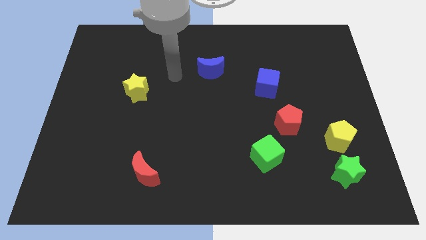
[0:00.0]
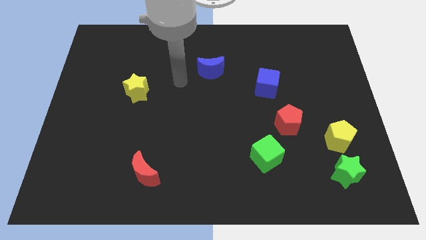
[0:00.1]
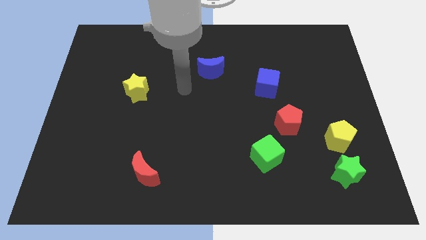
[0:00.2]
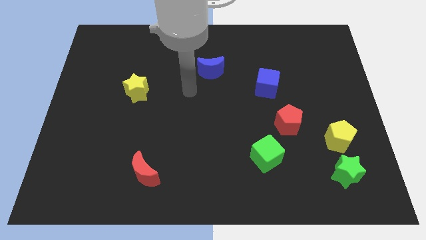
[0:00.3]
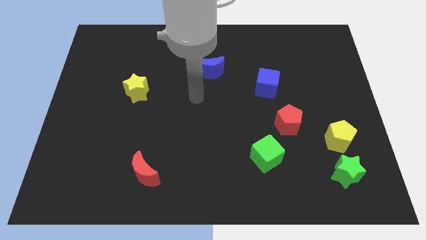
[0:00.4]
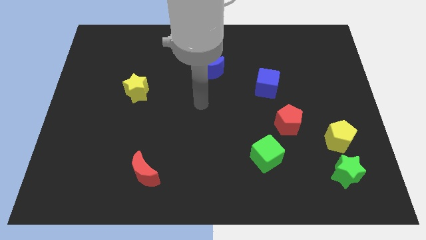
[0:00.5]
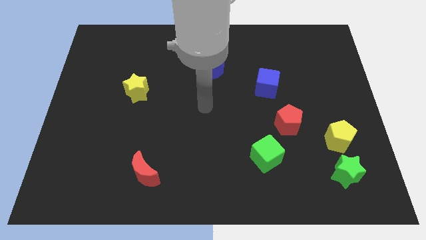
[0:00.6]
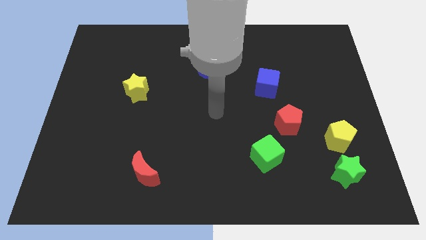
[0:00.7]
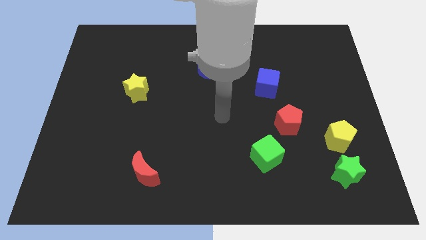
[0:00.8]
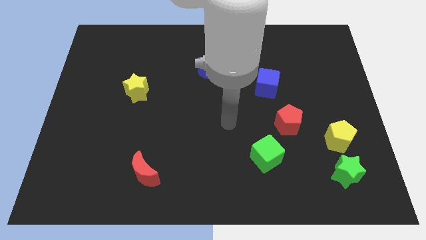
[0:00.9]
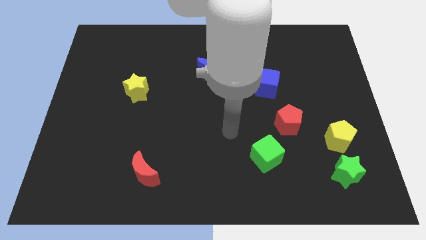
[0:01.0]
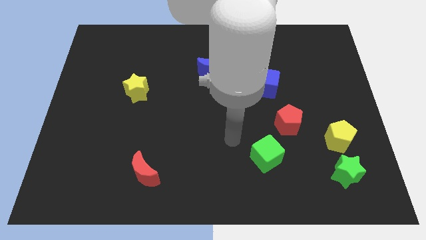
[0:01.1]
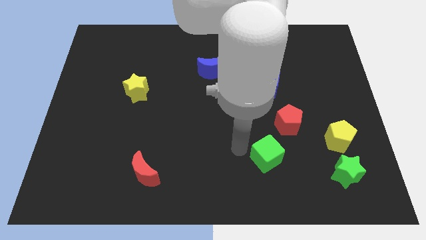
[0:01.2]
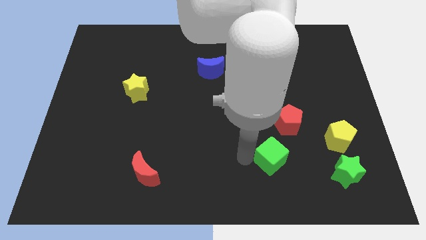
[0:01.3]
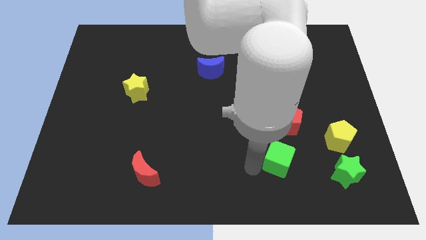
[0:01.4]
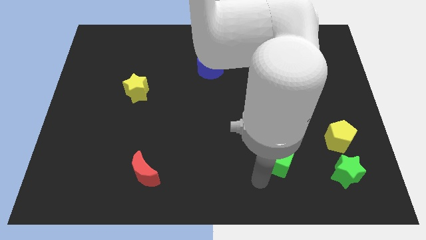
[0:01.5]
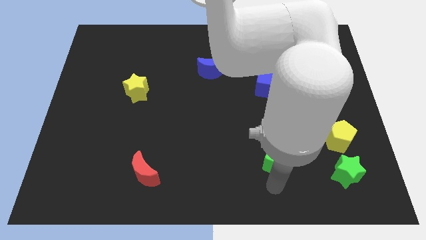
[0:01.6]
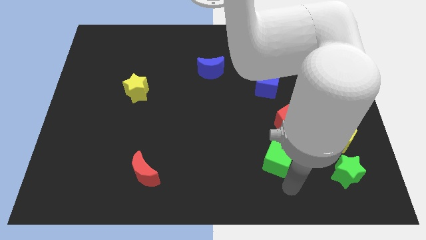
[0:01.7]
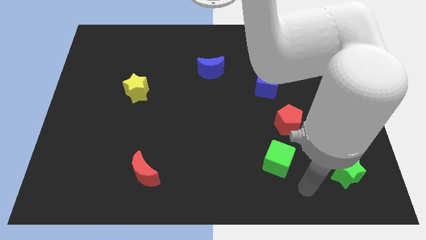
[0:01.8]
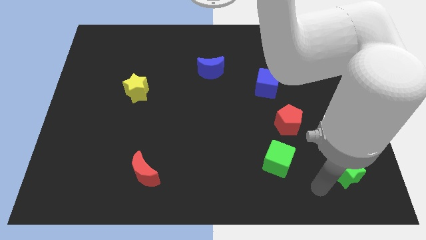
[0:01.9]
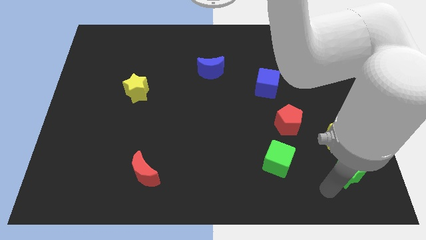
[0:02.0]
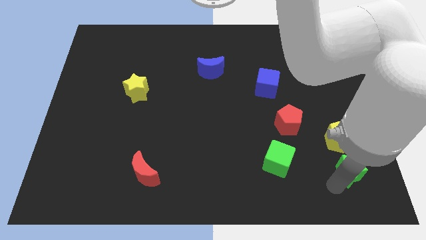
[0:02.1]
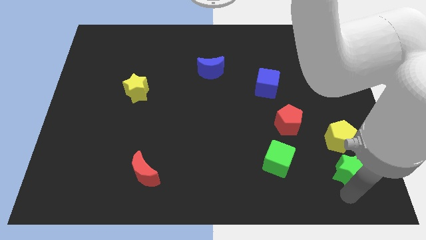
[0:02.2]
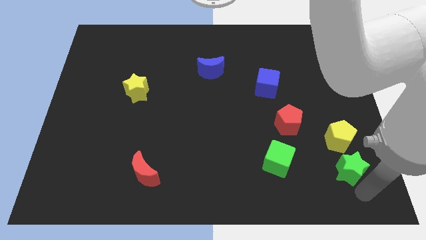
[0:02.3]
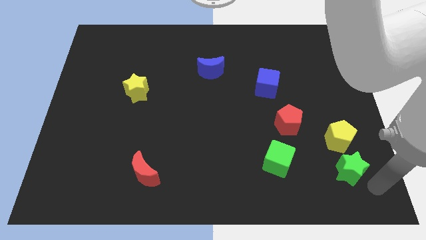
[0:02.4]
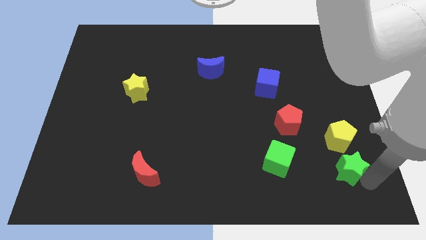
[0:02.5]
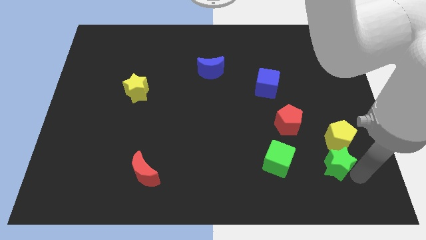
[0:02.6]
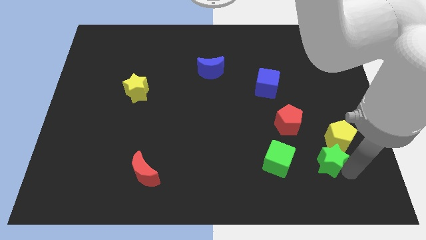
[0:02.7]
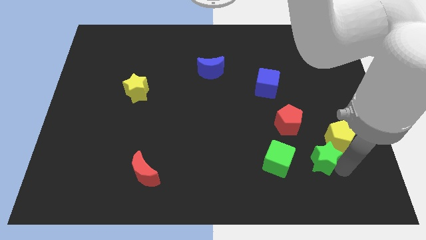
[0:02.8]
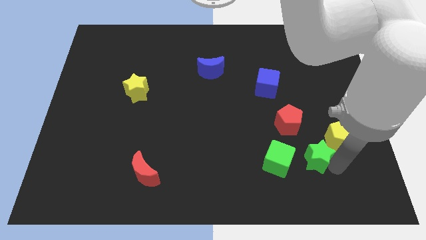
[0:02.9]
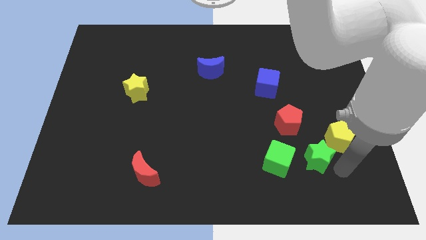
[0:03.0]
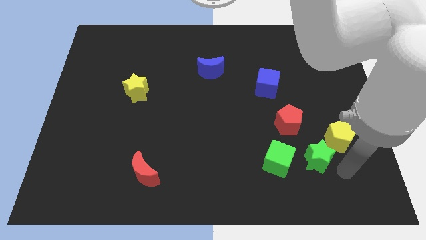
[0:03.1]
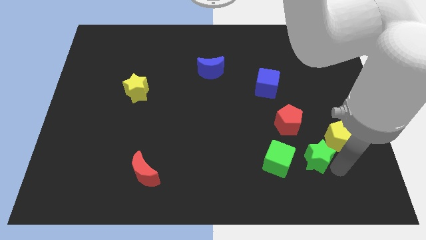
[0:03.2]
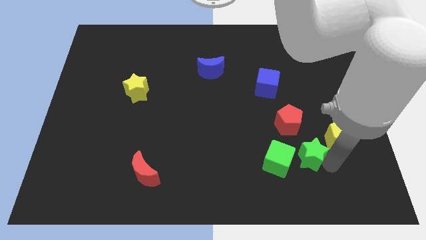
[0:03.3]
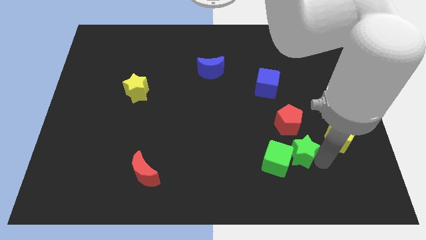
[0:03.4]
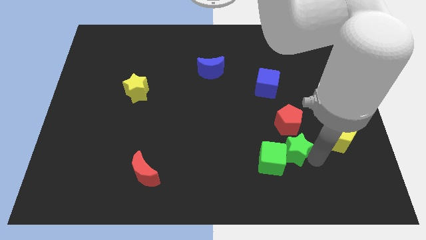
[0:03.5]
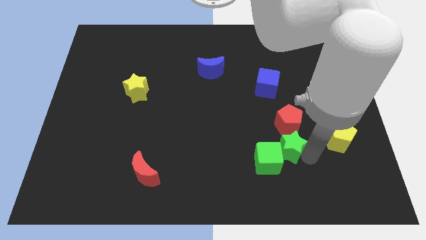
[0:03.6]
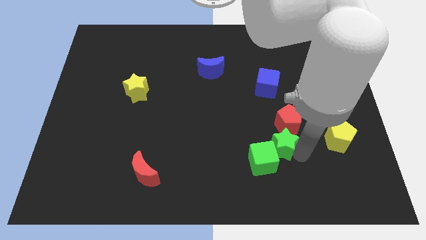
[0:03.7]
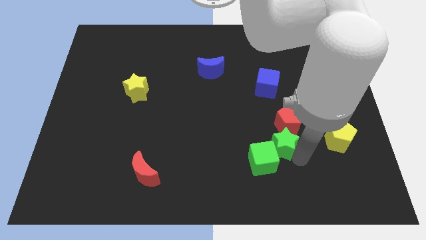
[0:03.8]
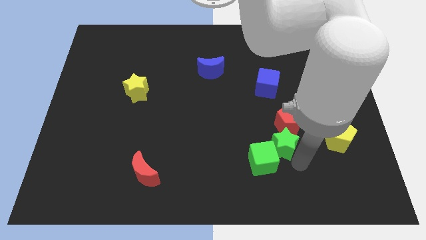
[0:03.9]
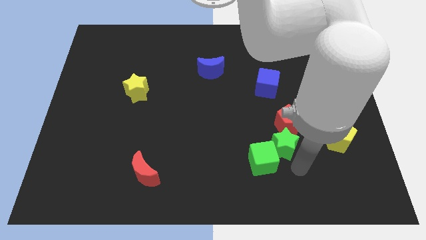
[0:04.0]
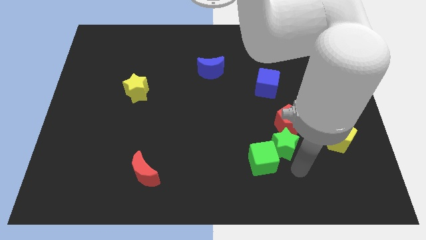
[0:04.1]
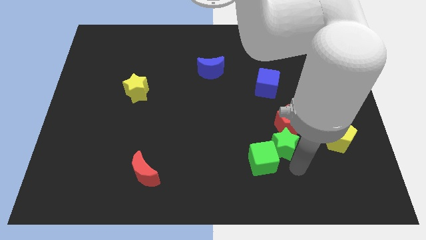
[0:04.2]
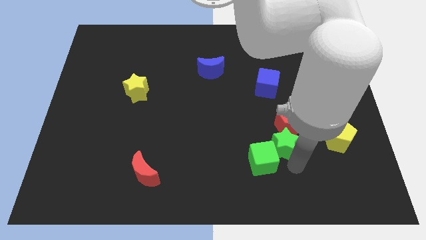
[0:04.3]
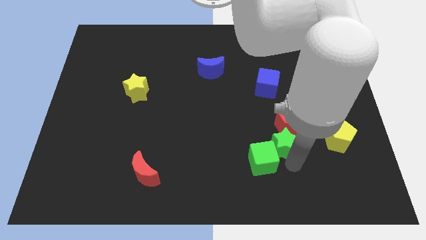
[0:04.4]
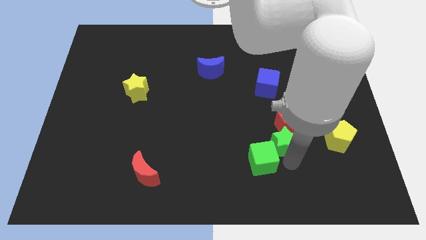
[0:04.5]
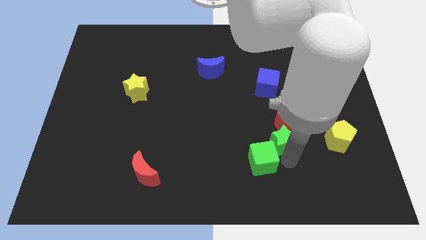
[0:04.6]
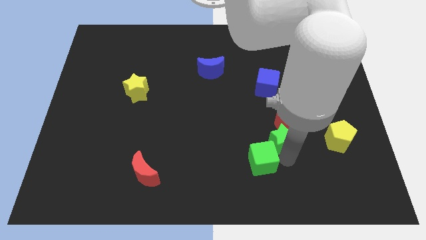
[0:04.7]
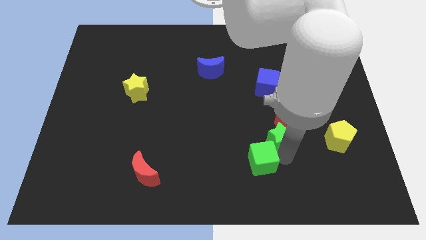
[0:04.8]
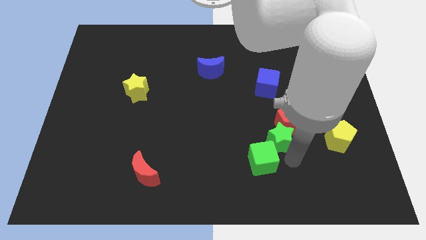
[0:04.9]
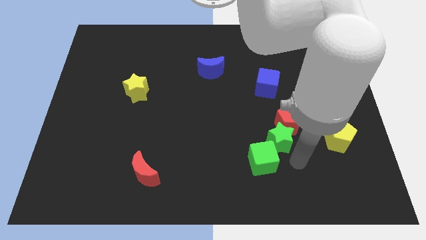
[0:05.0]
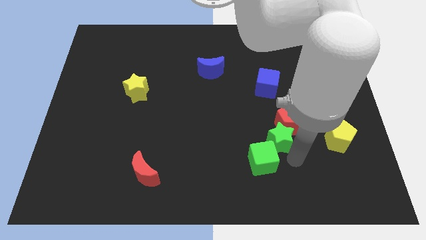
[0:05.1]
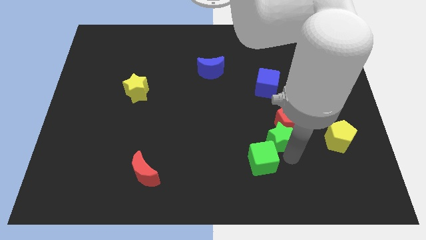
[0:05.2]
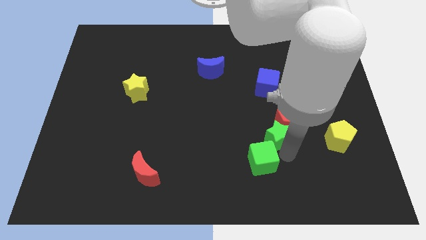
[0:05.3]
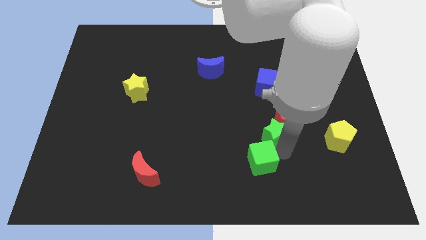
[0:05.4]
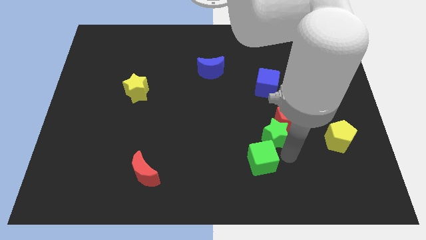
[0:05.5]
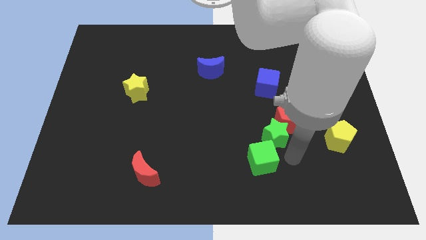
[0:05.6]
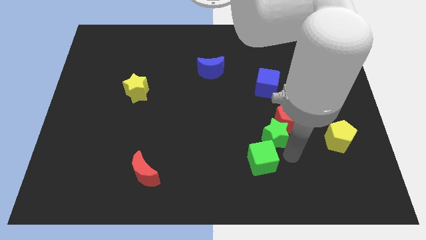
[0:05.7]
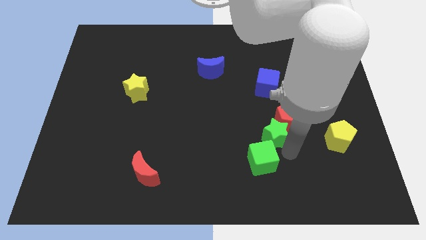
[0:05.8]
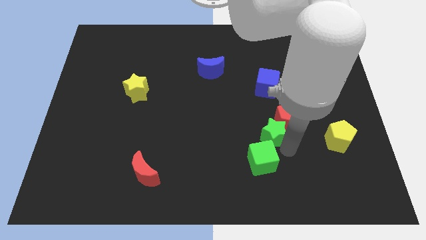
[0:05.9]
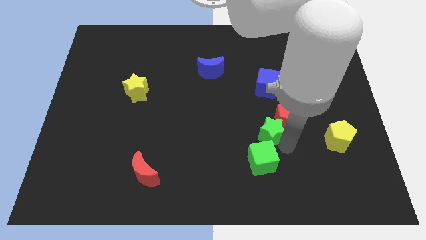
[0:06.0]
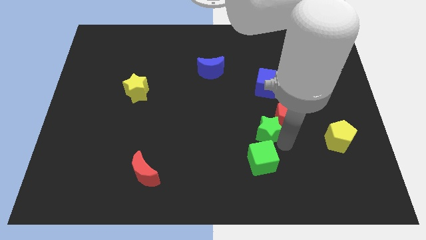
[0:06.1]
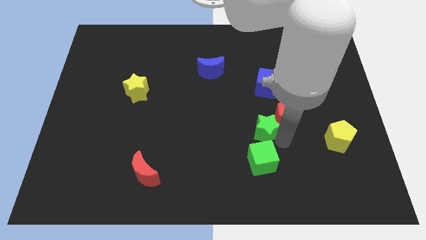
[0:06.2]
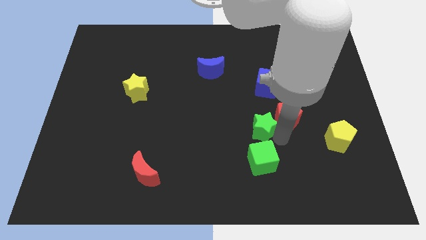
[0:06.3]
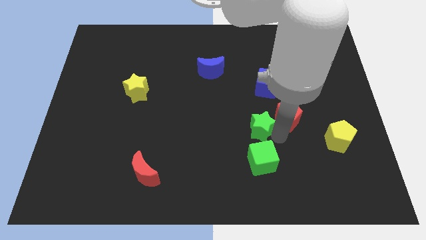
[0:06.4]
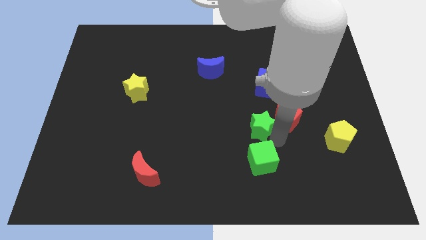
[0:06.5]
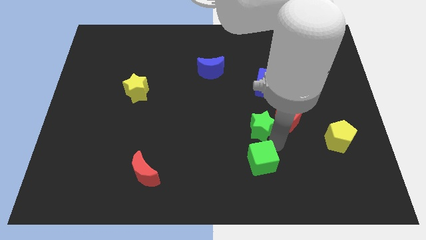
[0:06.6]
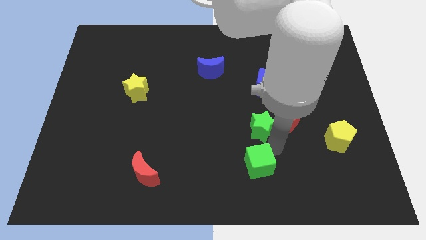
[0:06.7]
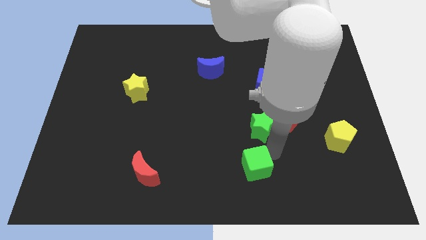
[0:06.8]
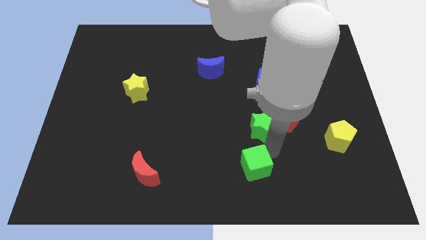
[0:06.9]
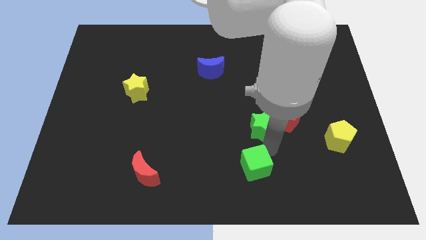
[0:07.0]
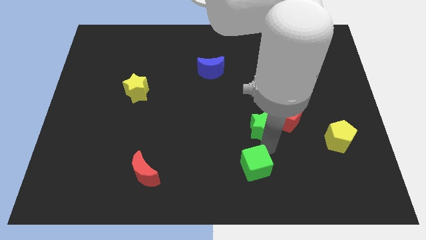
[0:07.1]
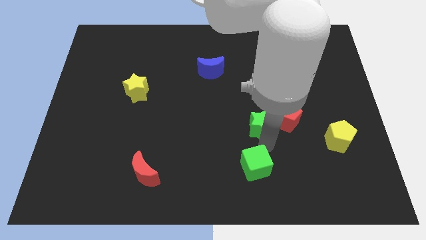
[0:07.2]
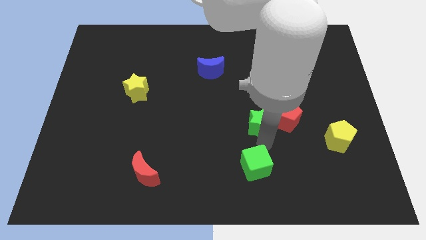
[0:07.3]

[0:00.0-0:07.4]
slide the green star diagonally up and left

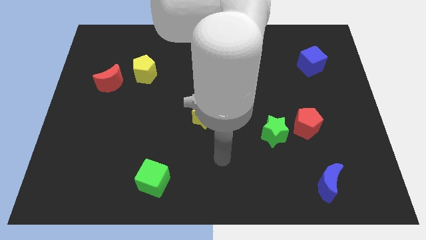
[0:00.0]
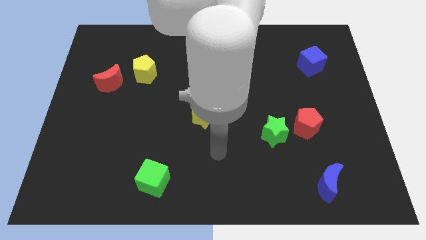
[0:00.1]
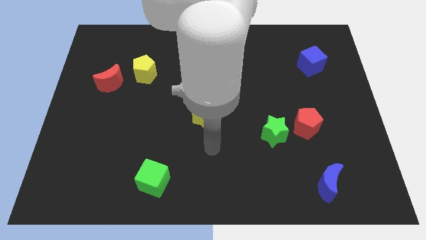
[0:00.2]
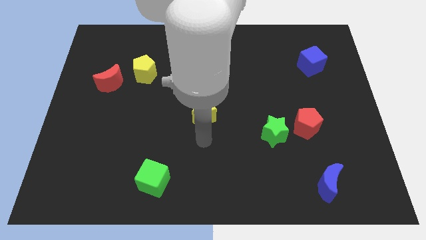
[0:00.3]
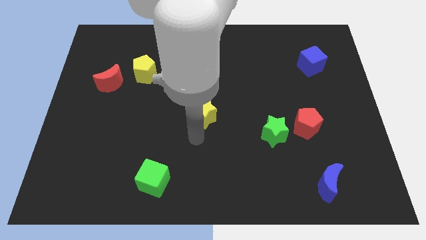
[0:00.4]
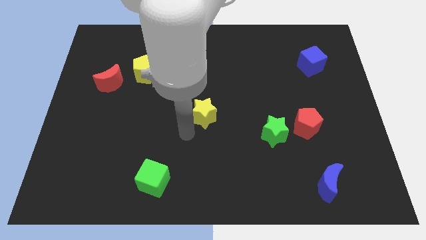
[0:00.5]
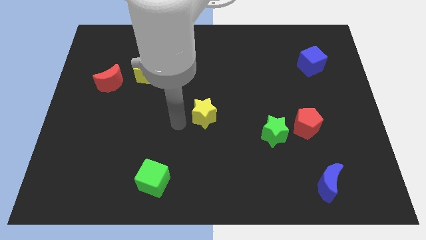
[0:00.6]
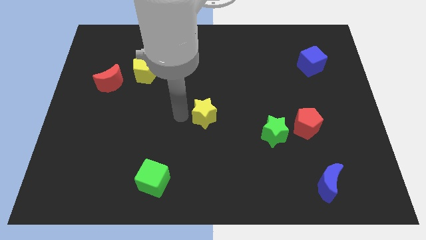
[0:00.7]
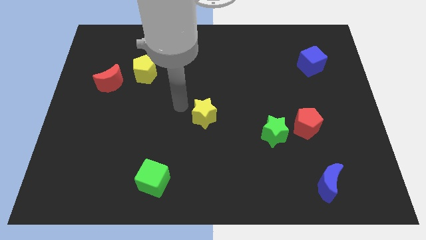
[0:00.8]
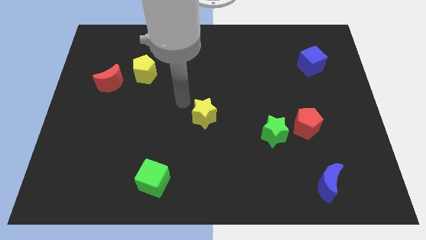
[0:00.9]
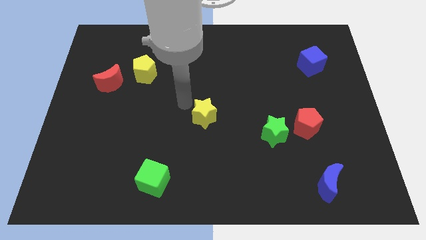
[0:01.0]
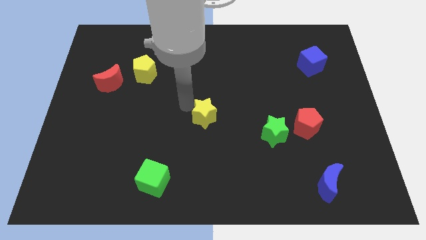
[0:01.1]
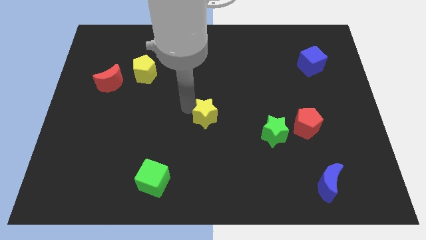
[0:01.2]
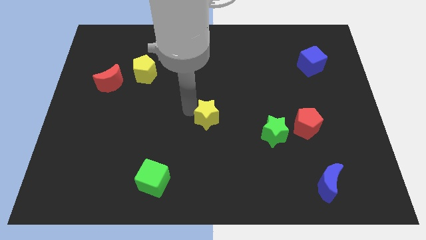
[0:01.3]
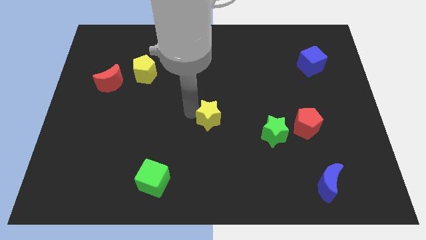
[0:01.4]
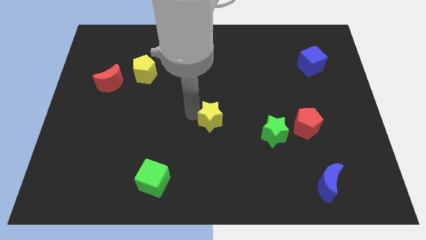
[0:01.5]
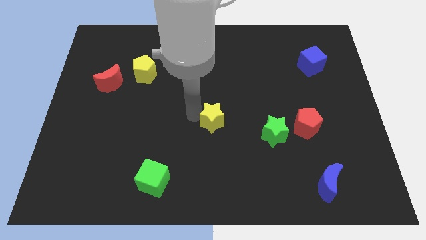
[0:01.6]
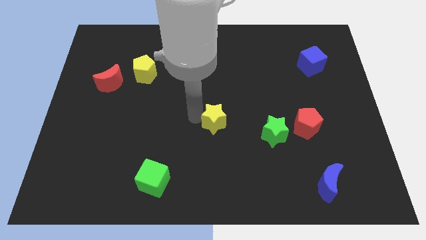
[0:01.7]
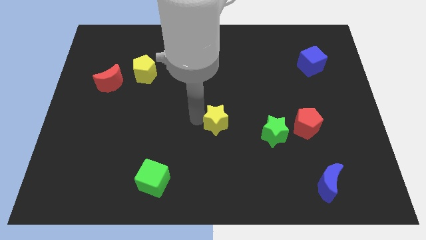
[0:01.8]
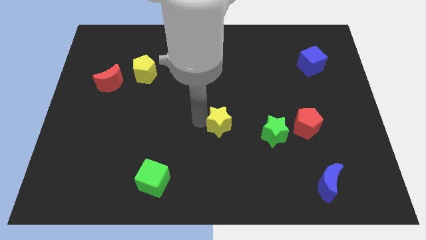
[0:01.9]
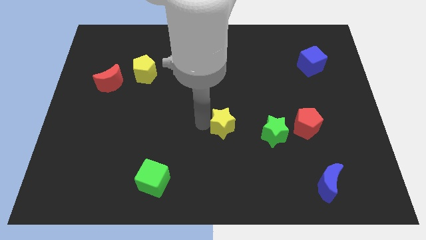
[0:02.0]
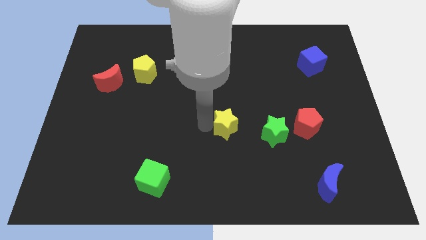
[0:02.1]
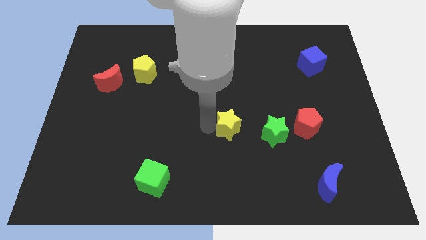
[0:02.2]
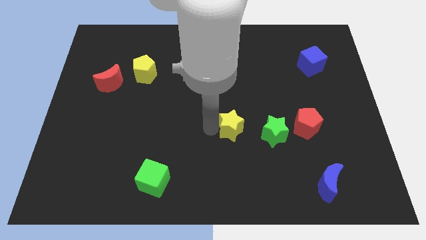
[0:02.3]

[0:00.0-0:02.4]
slightly slide the yellow star downwards and right
